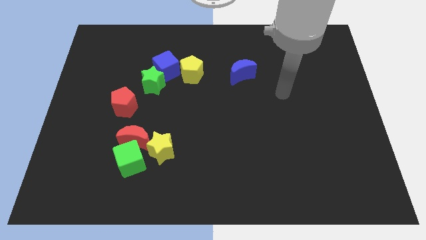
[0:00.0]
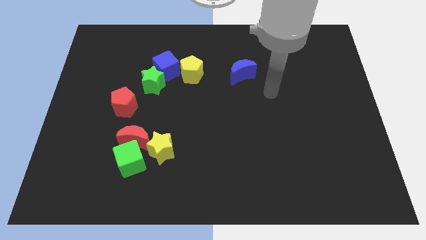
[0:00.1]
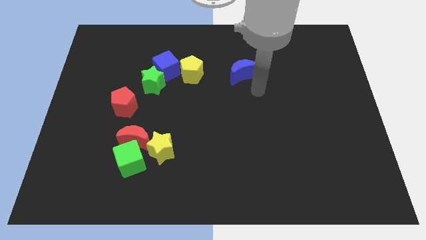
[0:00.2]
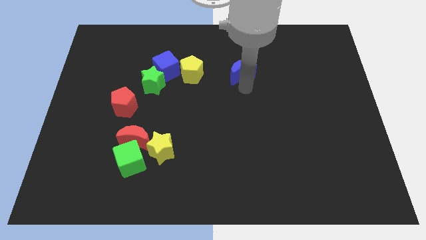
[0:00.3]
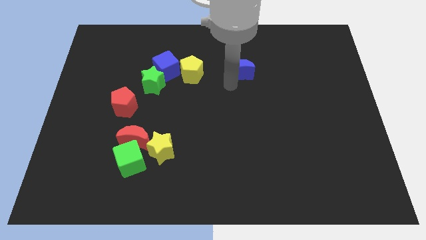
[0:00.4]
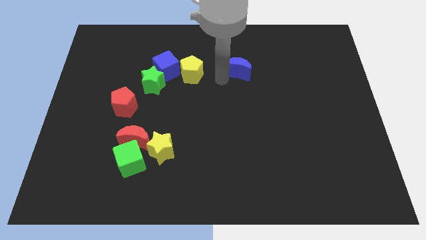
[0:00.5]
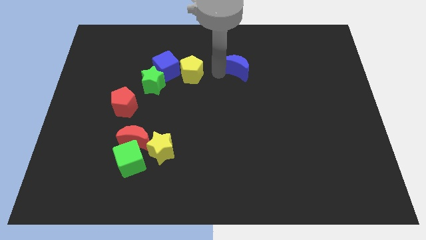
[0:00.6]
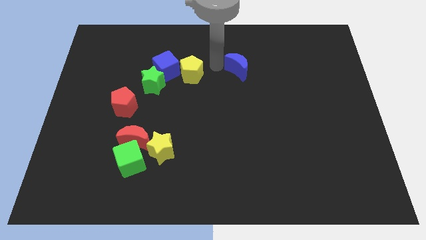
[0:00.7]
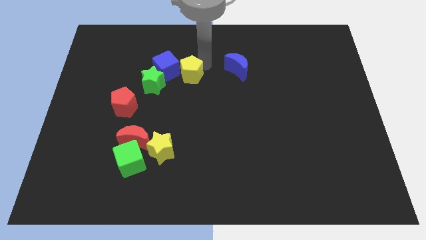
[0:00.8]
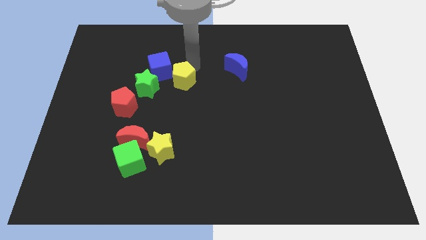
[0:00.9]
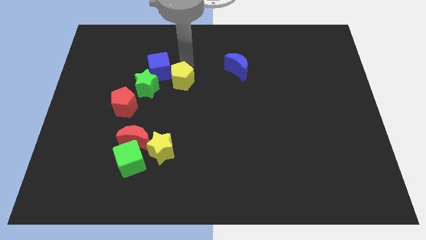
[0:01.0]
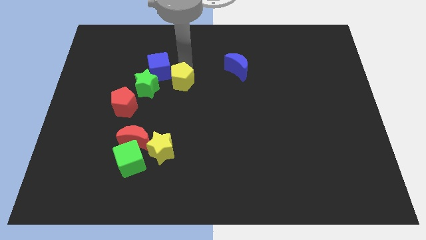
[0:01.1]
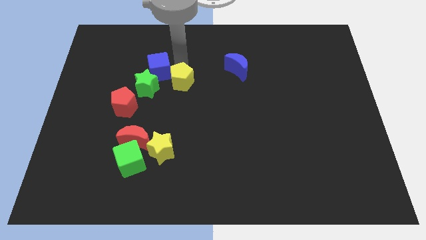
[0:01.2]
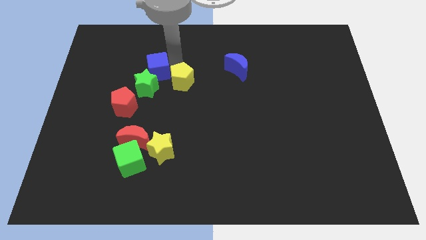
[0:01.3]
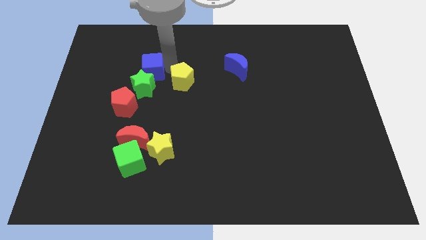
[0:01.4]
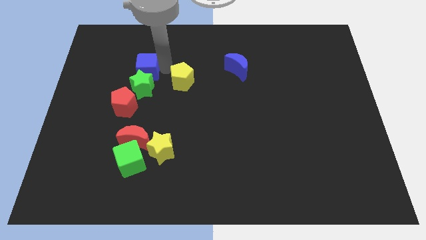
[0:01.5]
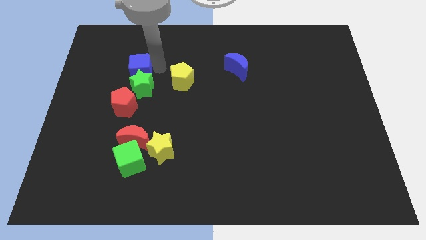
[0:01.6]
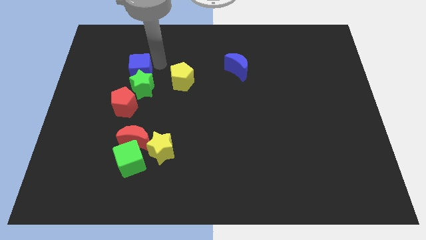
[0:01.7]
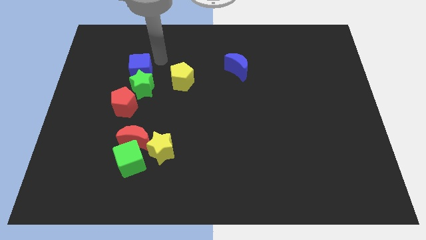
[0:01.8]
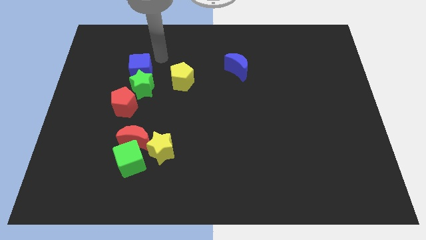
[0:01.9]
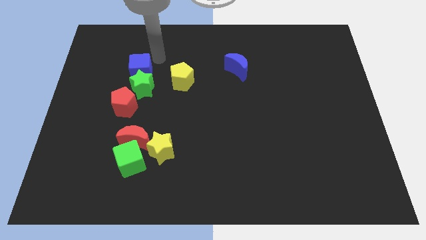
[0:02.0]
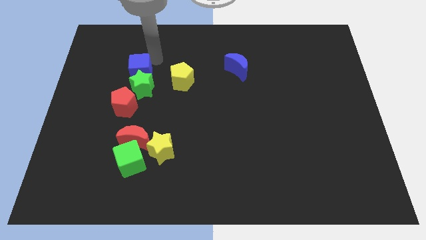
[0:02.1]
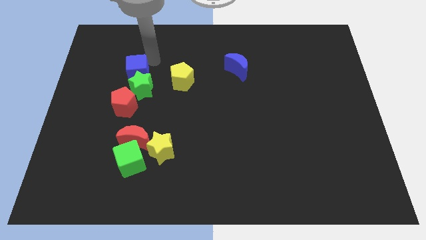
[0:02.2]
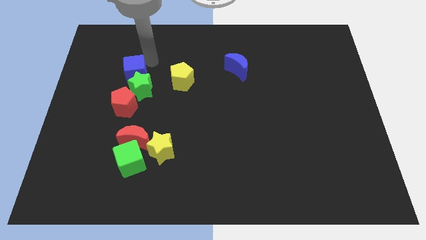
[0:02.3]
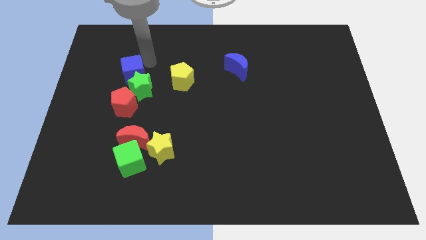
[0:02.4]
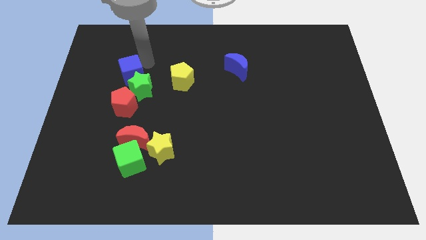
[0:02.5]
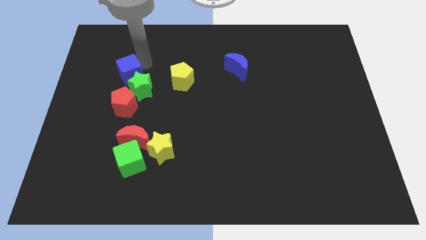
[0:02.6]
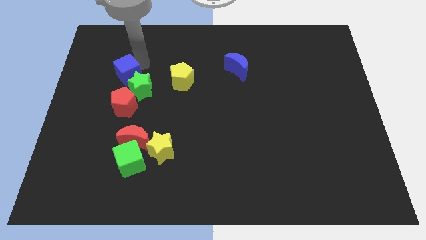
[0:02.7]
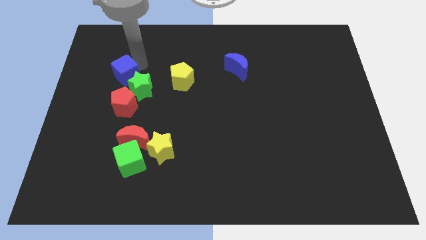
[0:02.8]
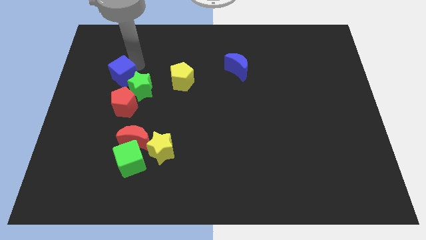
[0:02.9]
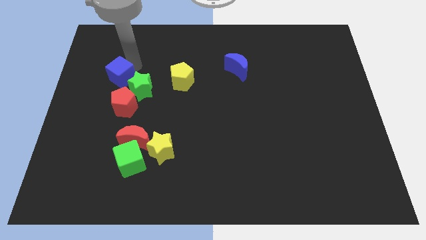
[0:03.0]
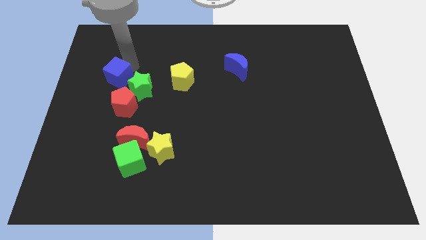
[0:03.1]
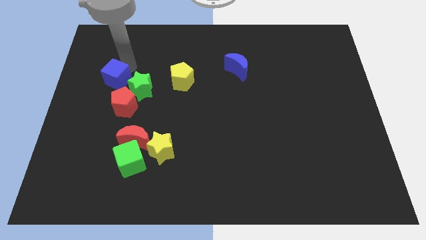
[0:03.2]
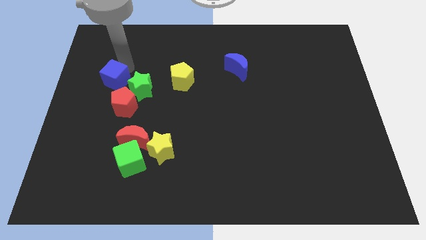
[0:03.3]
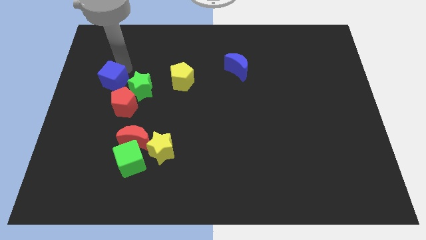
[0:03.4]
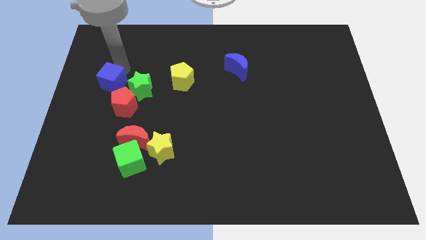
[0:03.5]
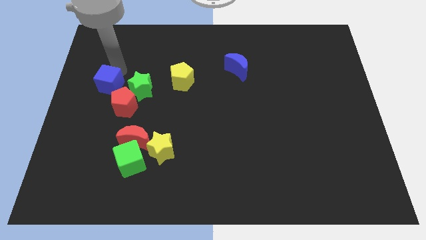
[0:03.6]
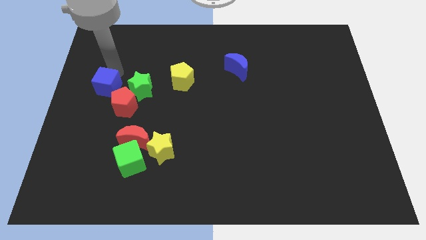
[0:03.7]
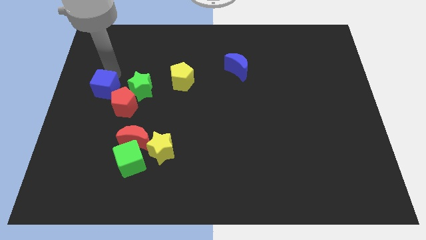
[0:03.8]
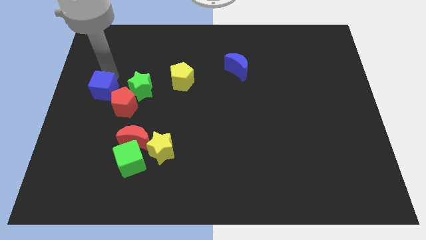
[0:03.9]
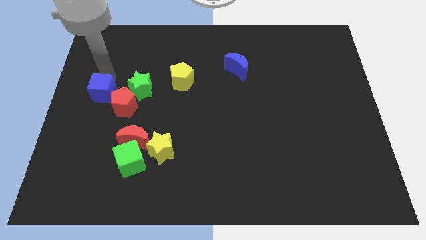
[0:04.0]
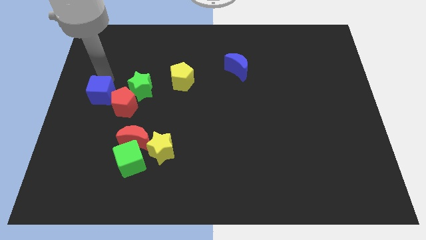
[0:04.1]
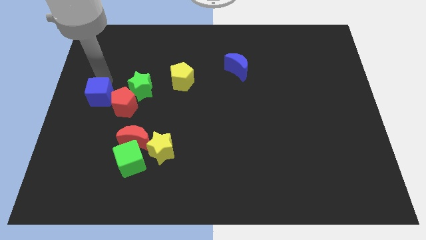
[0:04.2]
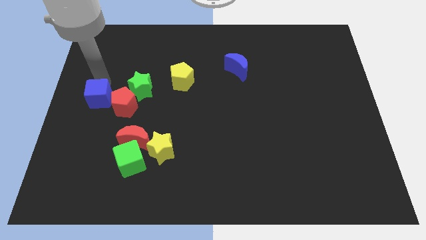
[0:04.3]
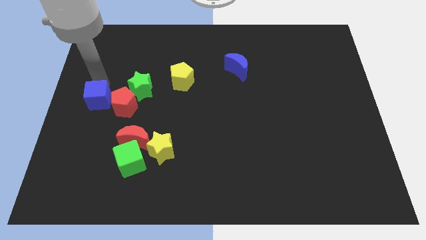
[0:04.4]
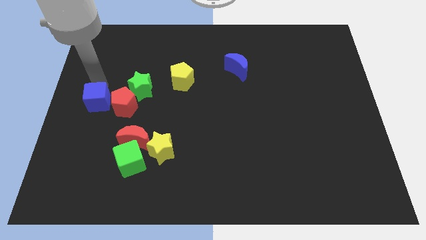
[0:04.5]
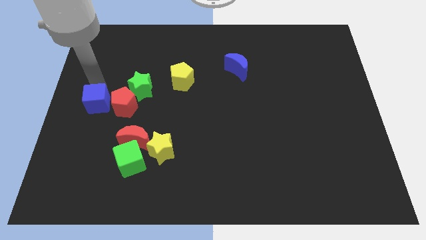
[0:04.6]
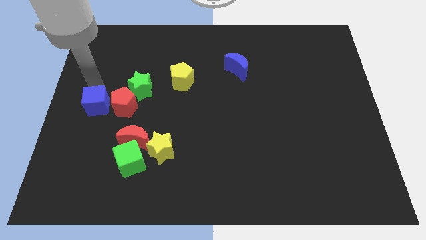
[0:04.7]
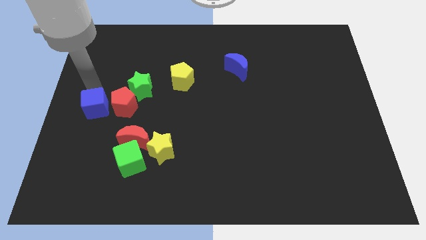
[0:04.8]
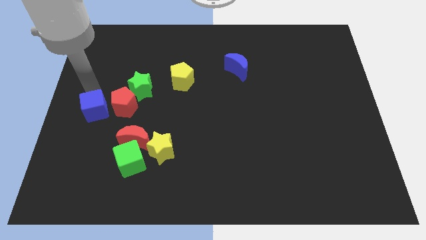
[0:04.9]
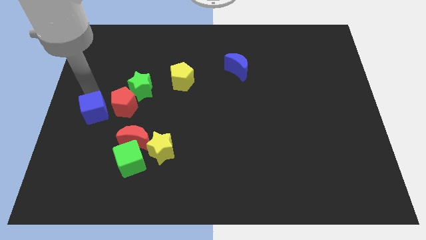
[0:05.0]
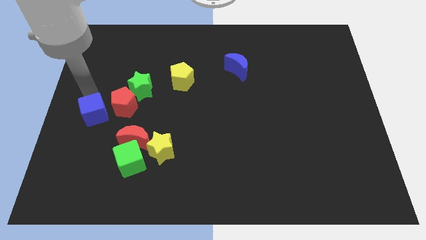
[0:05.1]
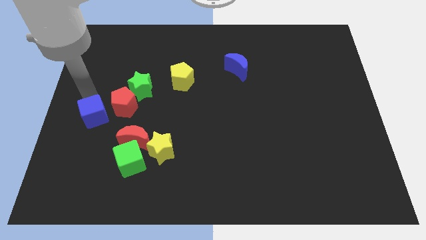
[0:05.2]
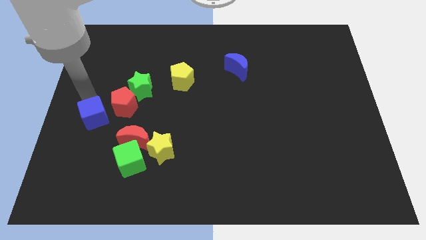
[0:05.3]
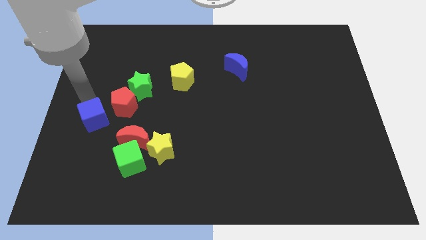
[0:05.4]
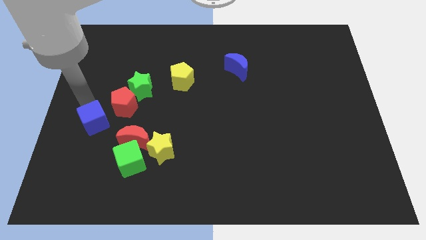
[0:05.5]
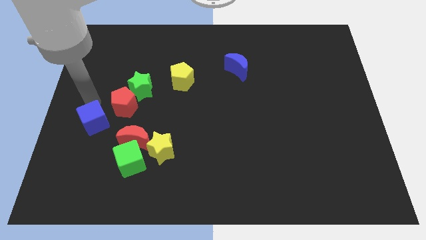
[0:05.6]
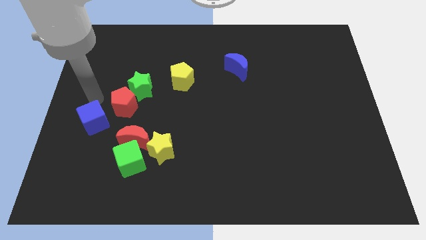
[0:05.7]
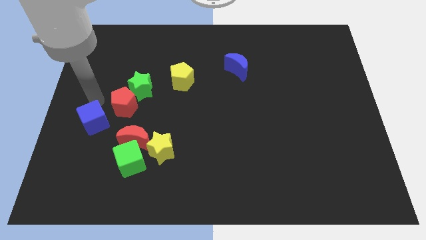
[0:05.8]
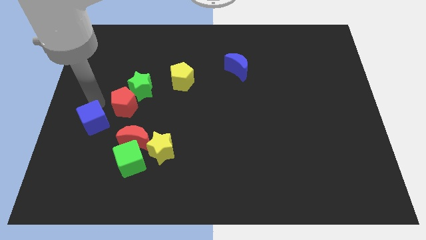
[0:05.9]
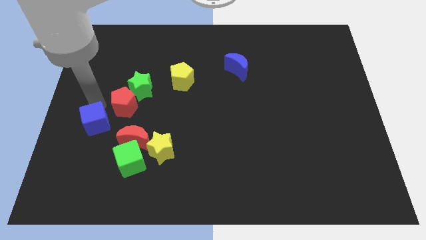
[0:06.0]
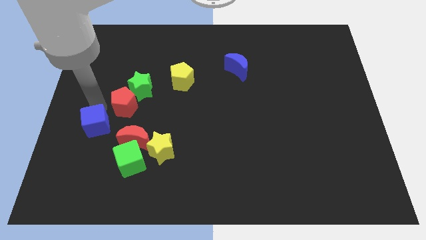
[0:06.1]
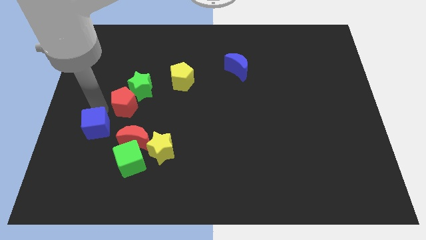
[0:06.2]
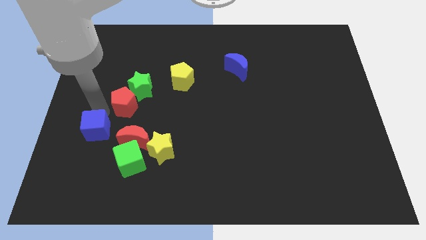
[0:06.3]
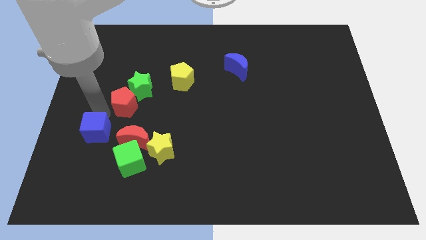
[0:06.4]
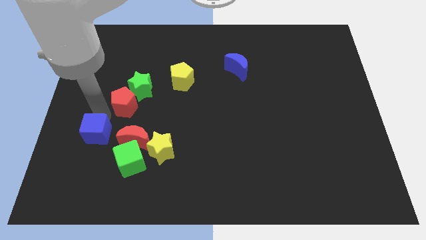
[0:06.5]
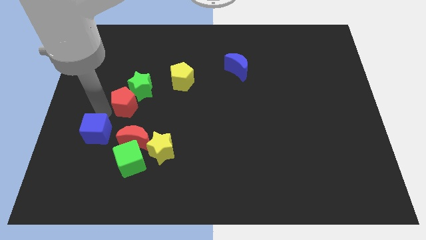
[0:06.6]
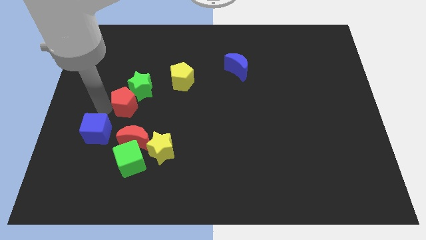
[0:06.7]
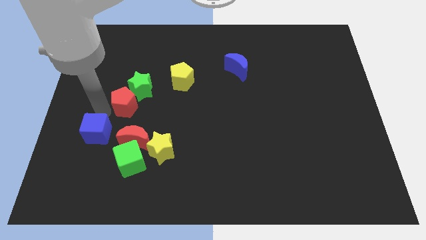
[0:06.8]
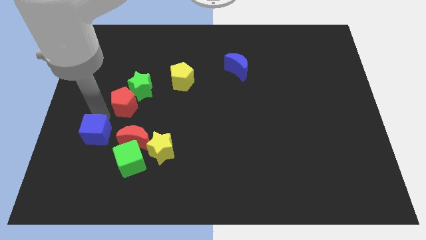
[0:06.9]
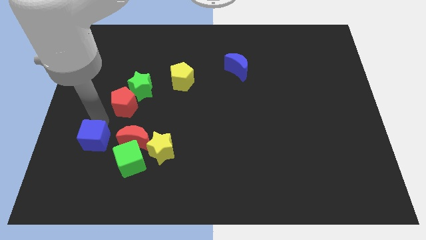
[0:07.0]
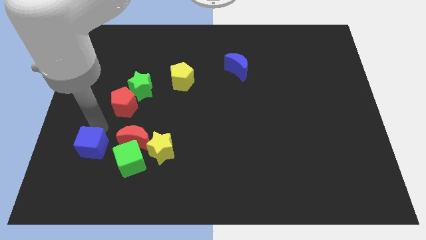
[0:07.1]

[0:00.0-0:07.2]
put the blue cube to the left side of the green cube

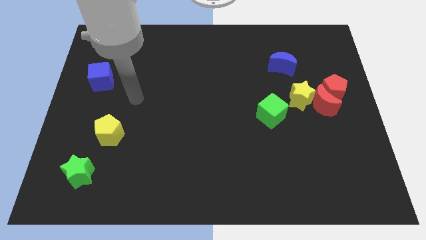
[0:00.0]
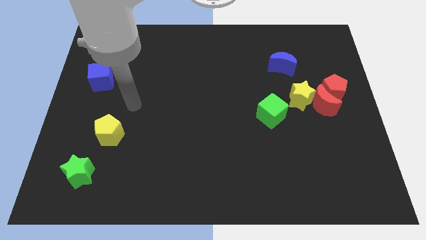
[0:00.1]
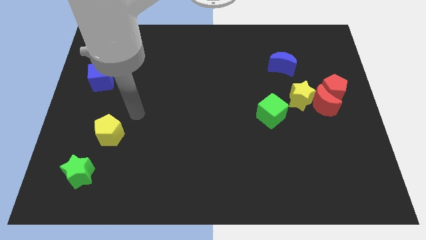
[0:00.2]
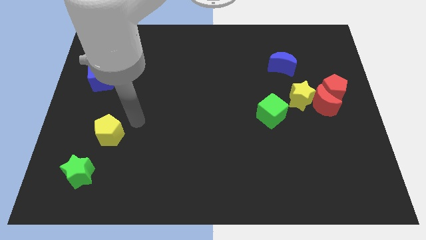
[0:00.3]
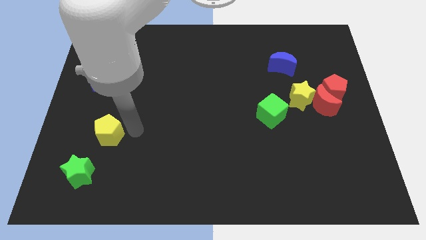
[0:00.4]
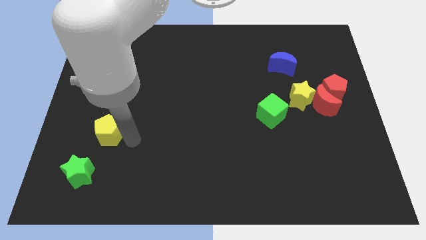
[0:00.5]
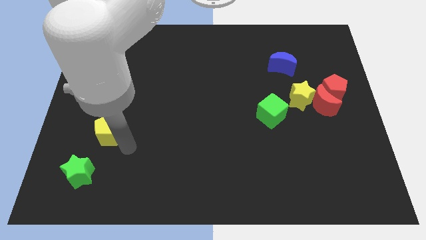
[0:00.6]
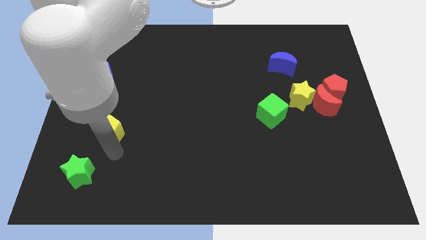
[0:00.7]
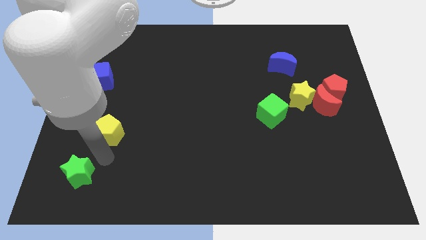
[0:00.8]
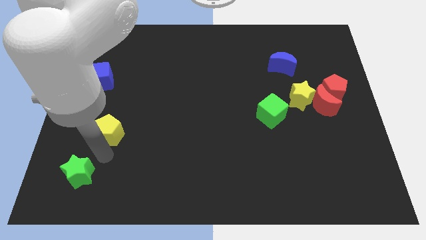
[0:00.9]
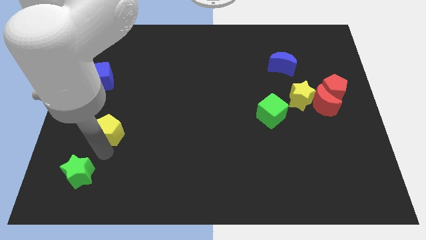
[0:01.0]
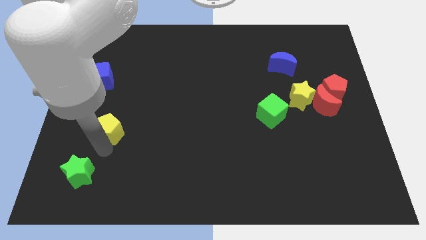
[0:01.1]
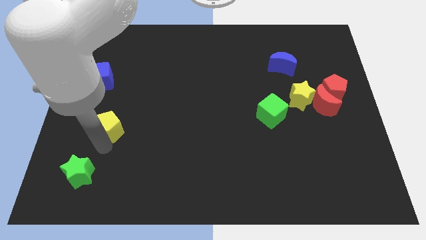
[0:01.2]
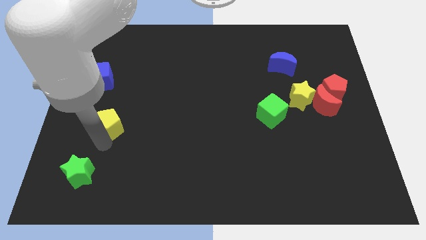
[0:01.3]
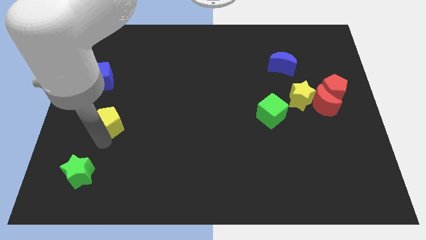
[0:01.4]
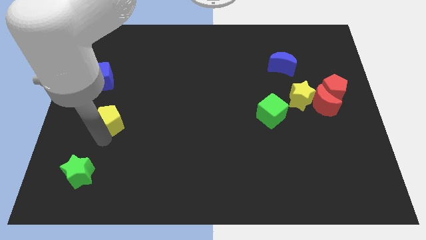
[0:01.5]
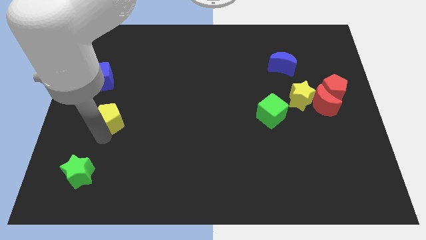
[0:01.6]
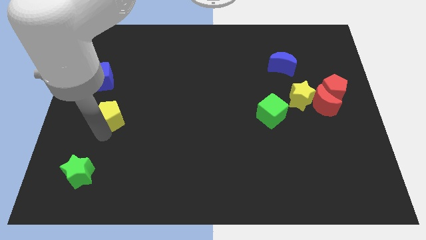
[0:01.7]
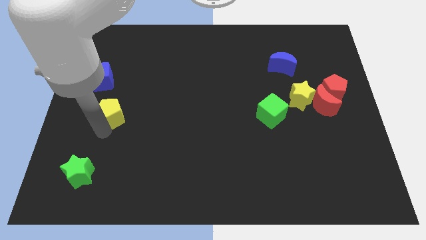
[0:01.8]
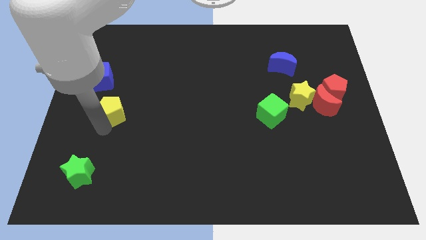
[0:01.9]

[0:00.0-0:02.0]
push the yellow pentagon to the bottom right side of the blue cube
